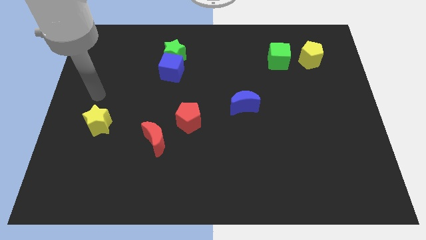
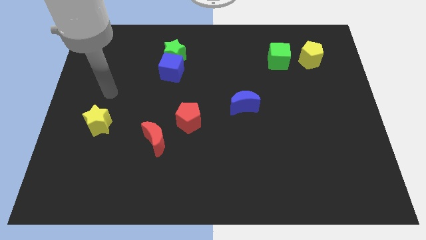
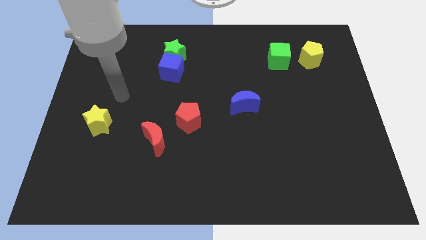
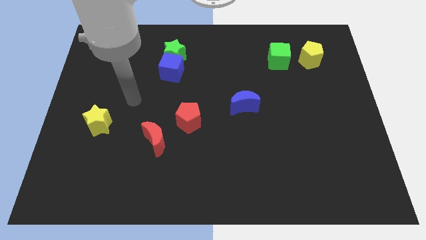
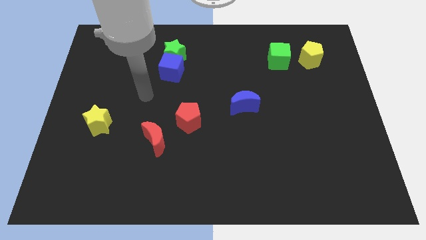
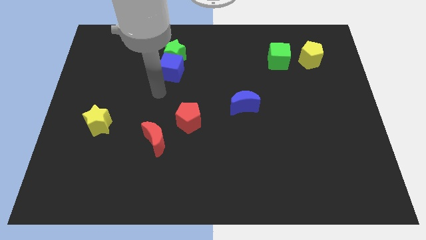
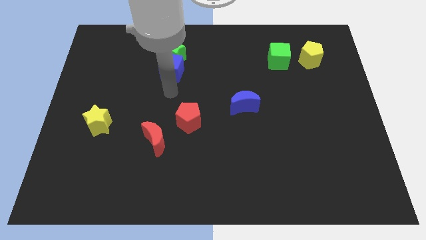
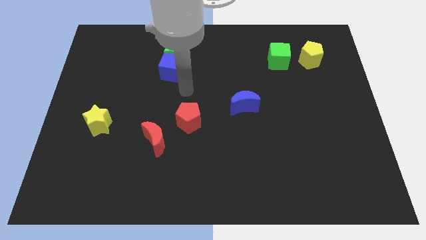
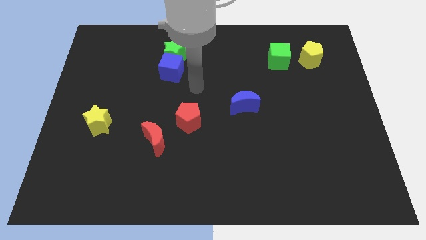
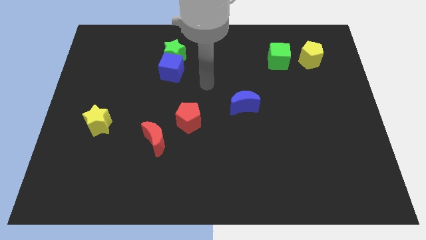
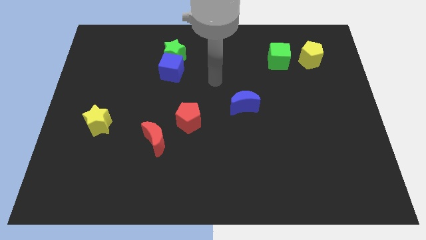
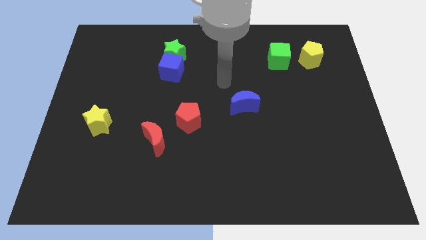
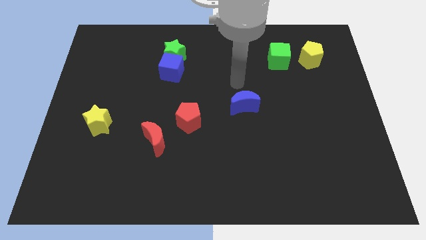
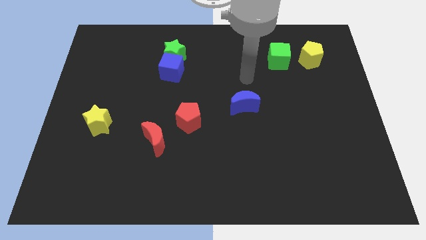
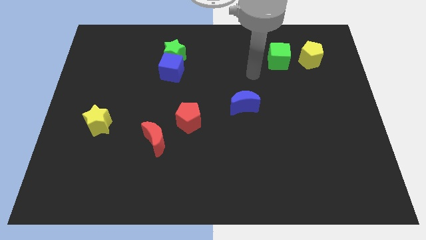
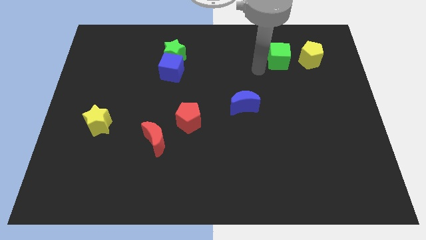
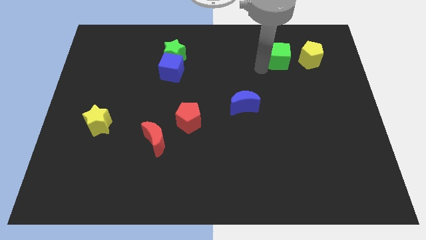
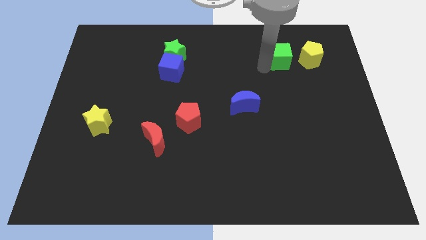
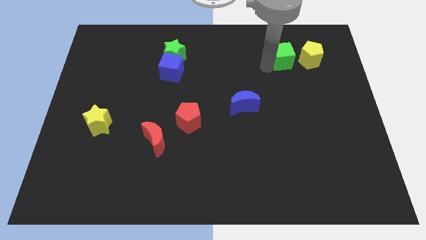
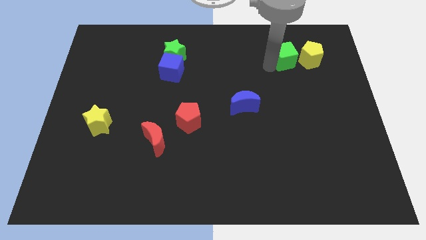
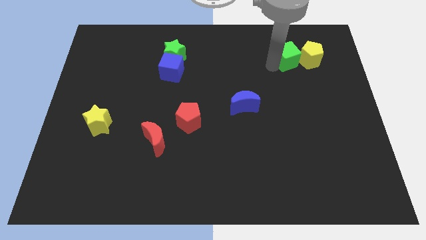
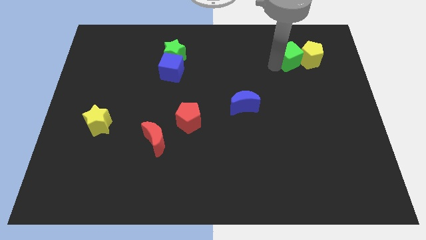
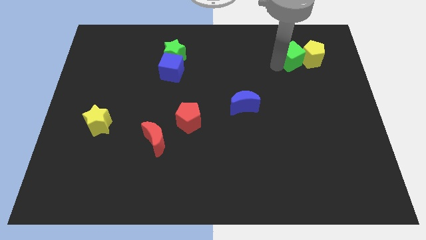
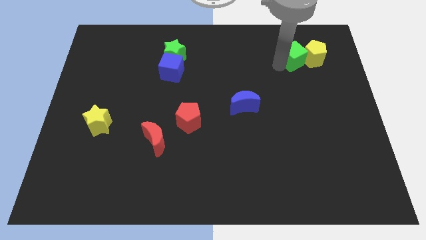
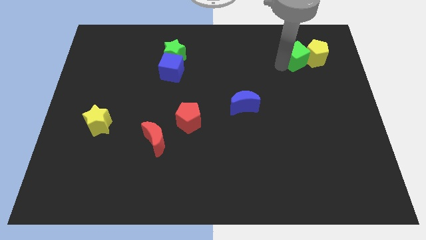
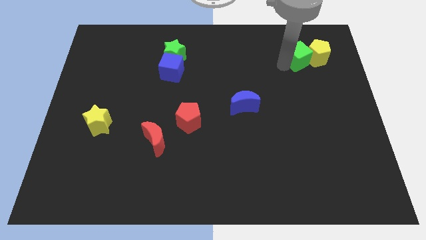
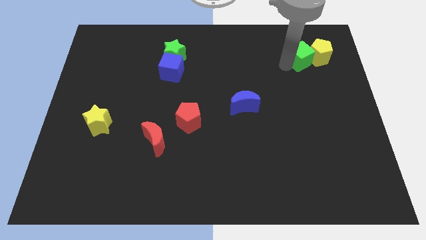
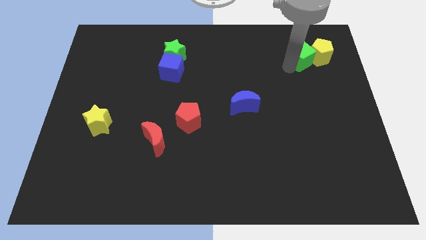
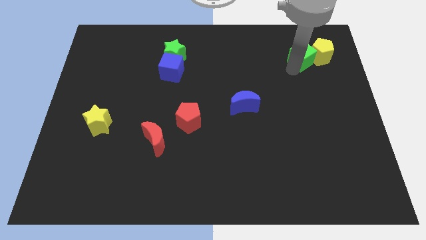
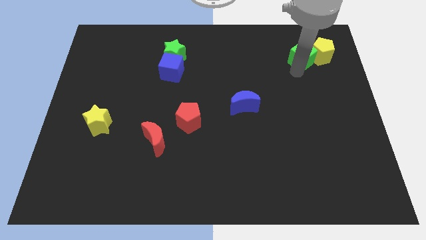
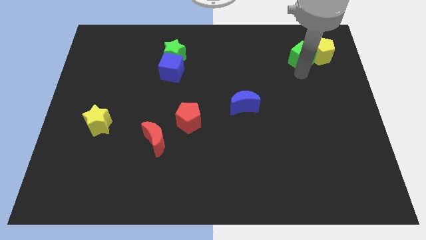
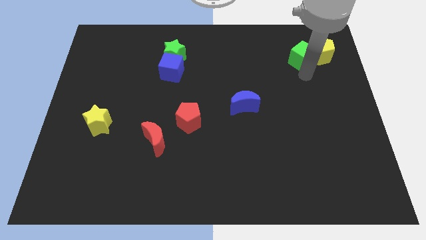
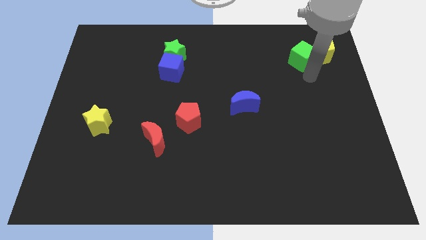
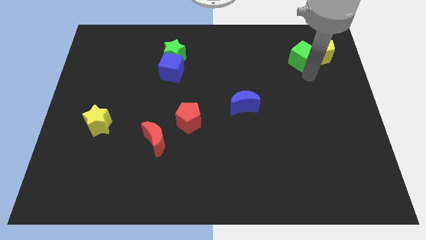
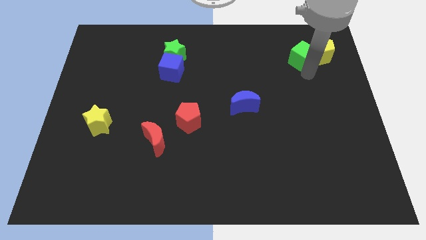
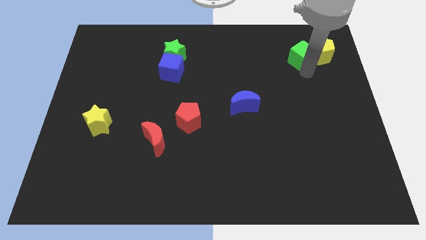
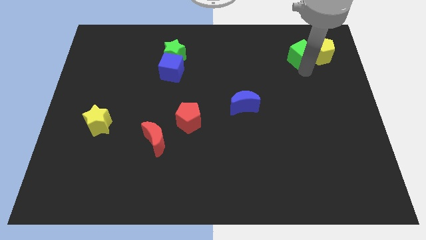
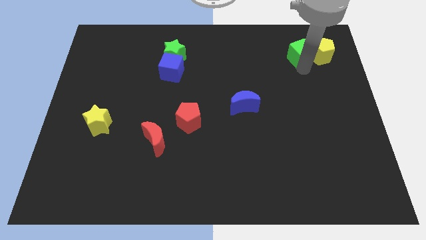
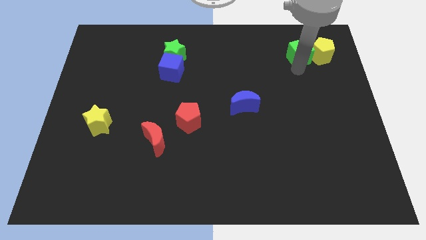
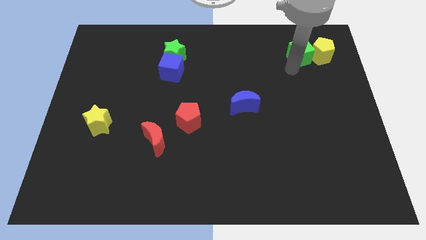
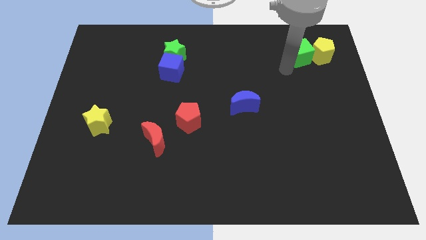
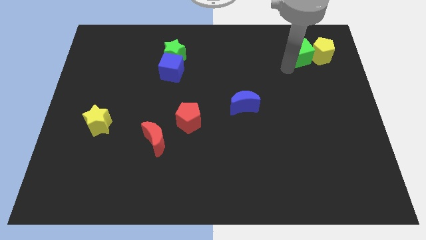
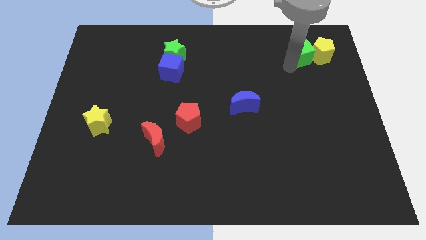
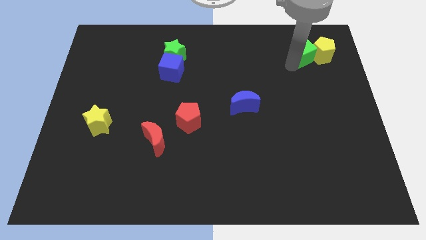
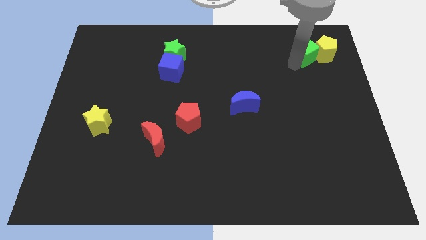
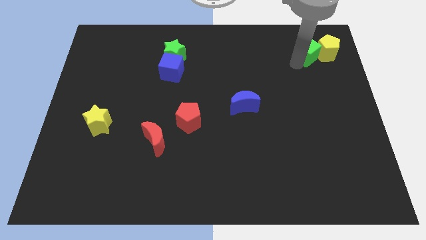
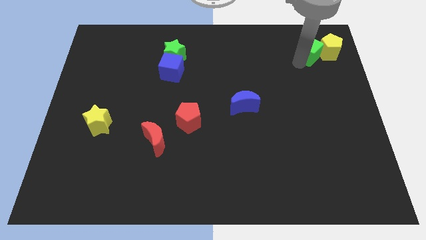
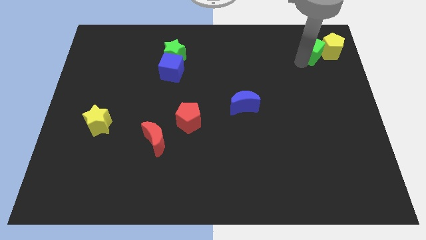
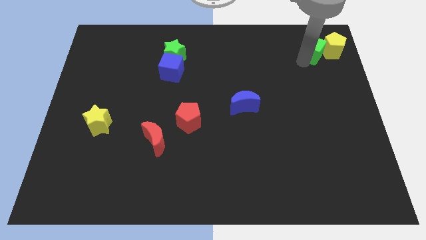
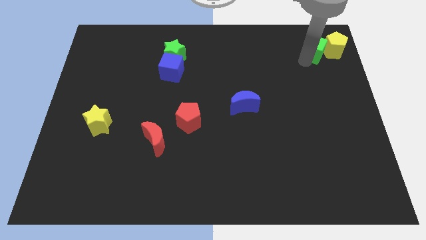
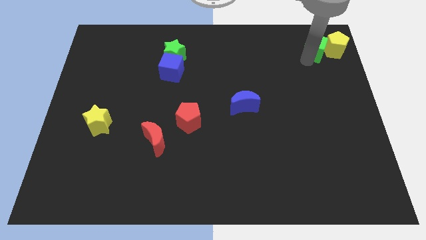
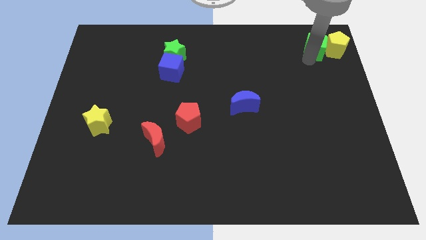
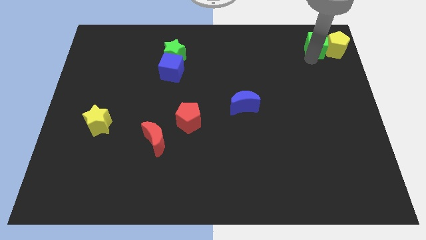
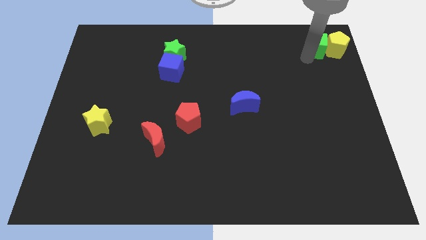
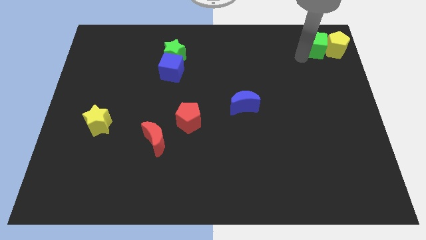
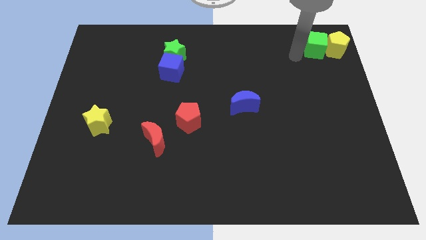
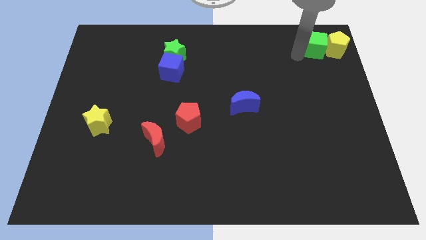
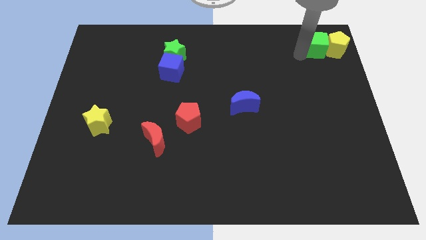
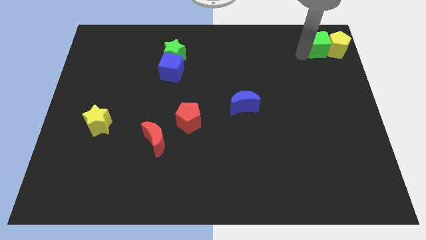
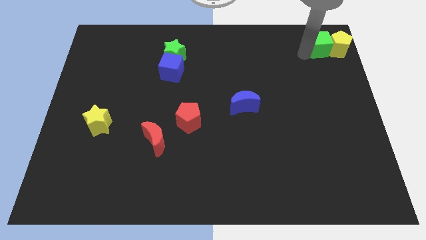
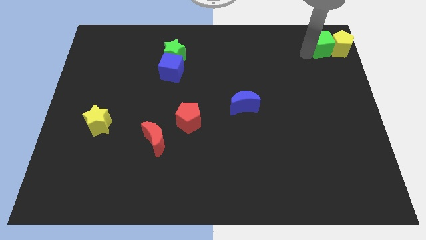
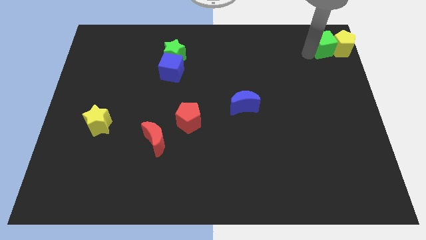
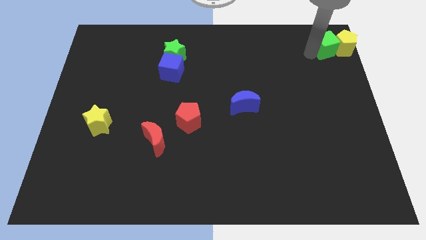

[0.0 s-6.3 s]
push the green cube to the upper right corner
